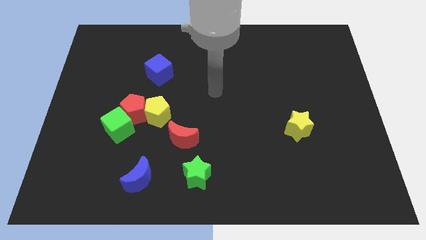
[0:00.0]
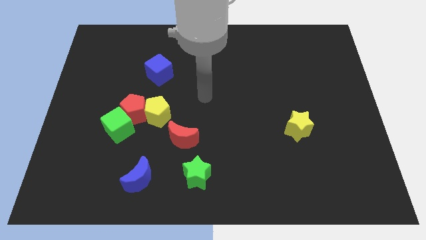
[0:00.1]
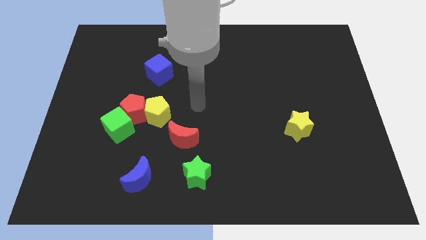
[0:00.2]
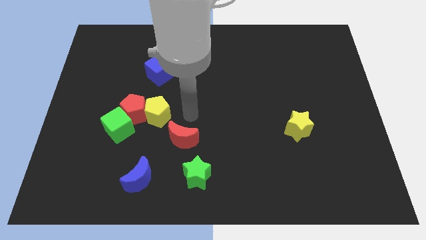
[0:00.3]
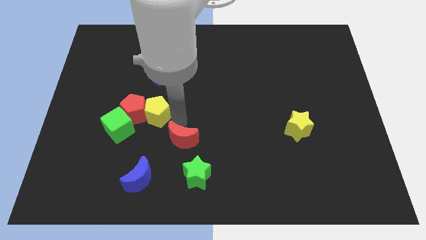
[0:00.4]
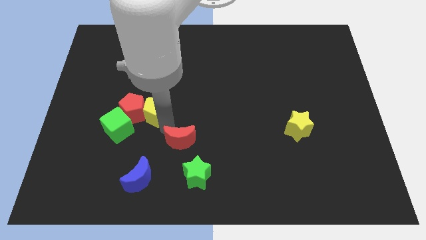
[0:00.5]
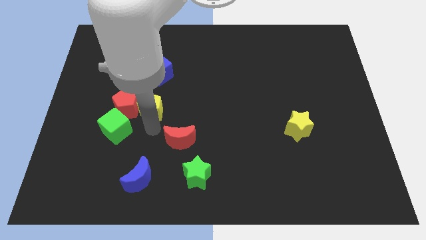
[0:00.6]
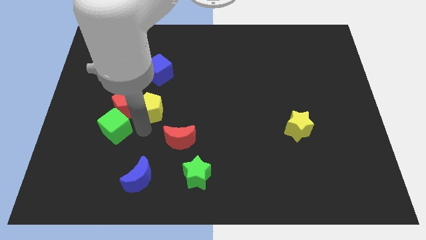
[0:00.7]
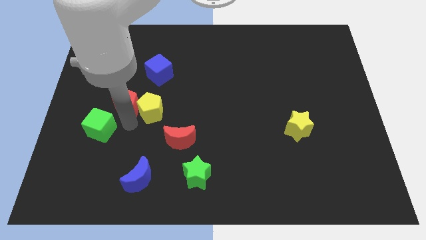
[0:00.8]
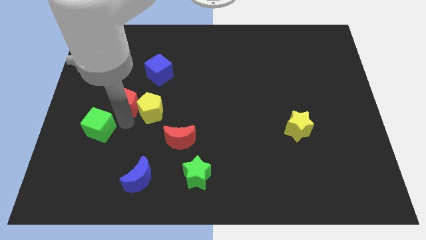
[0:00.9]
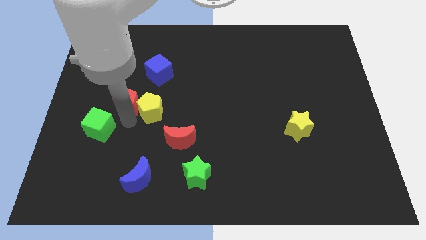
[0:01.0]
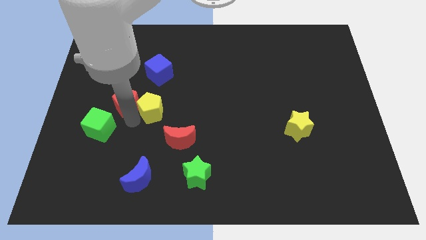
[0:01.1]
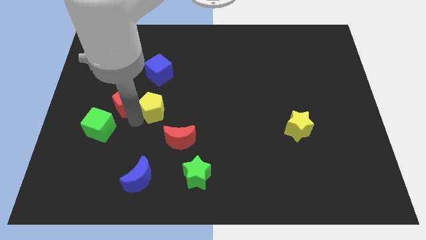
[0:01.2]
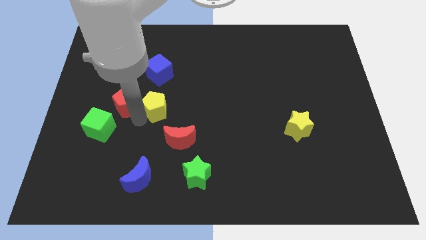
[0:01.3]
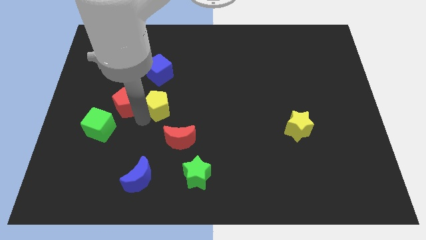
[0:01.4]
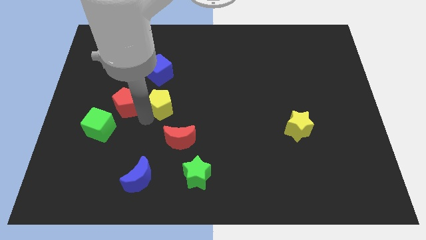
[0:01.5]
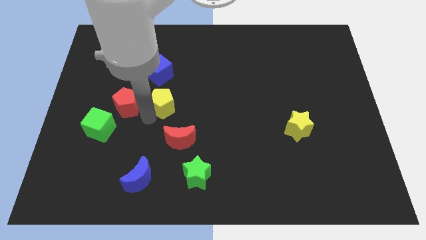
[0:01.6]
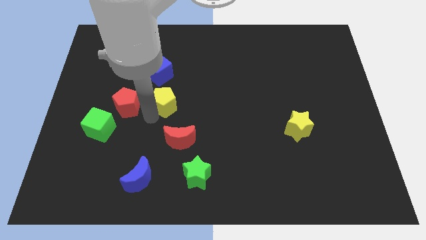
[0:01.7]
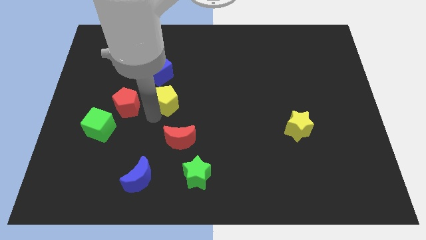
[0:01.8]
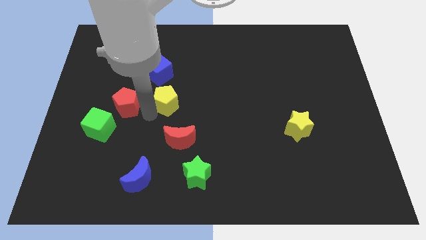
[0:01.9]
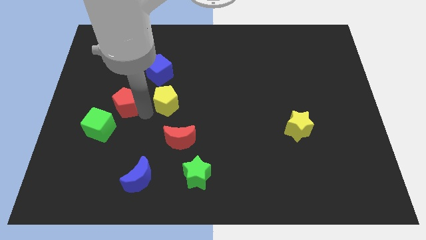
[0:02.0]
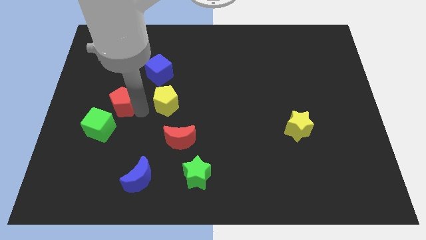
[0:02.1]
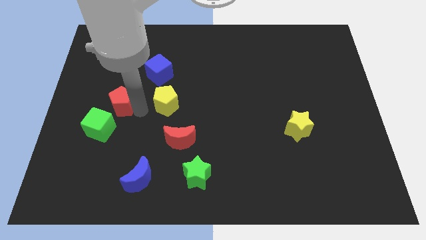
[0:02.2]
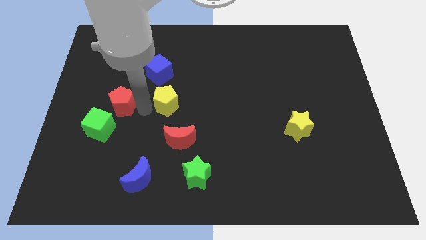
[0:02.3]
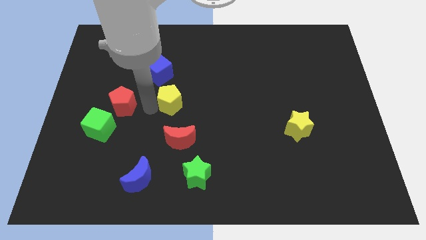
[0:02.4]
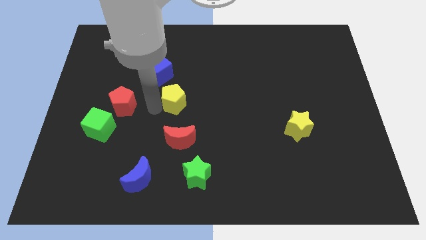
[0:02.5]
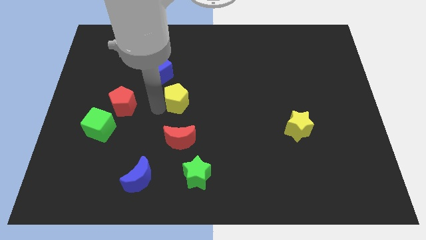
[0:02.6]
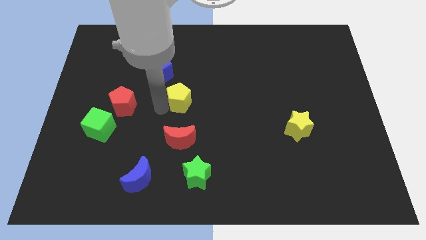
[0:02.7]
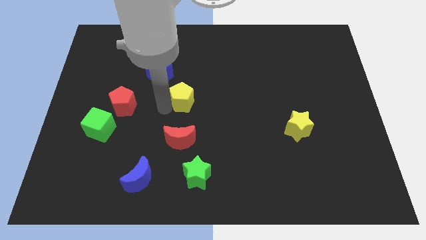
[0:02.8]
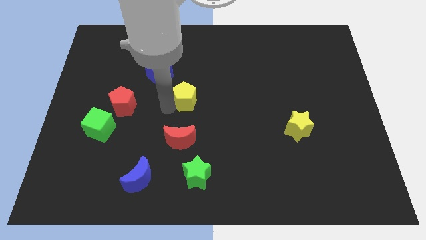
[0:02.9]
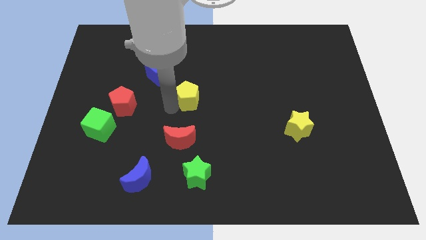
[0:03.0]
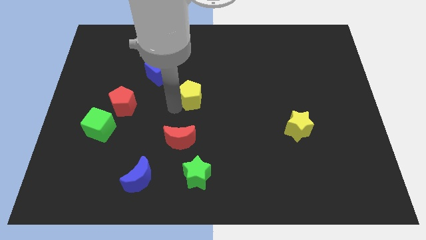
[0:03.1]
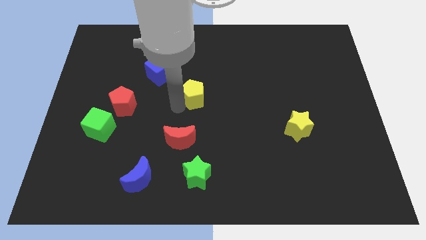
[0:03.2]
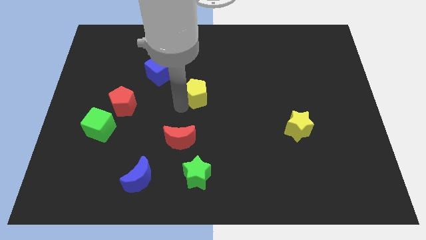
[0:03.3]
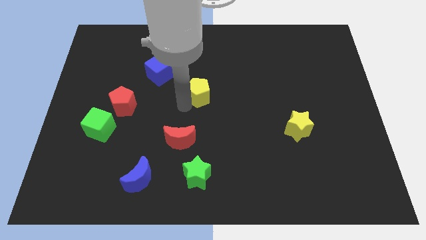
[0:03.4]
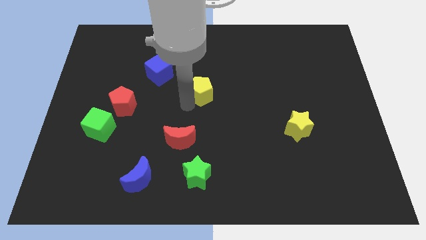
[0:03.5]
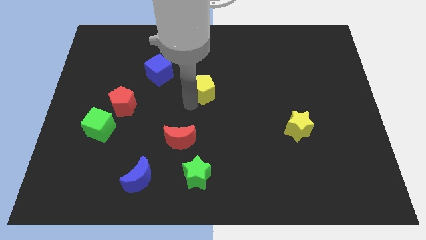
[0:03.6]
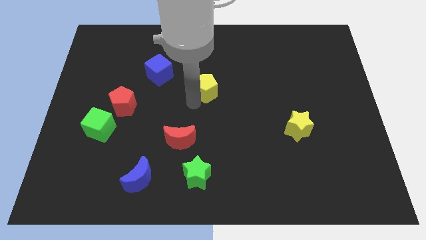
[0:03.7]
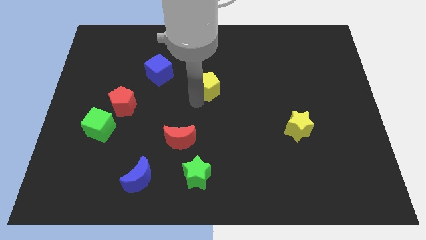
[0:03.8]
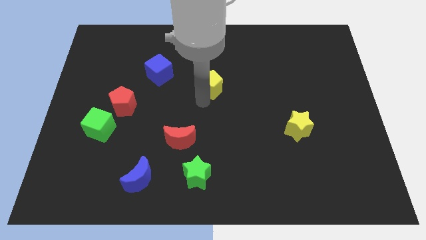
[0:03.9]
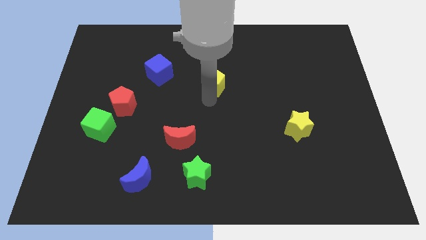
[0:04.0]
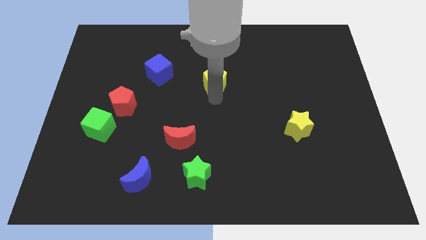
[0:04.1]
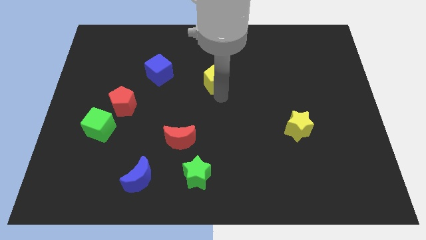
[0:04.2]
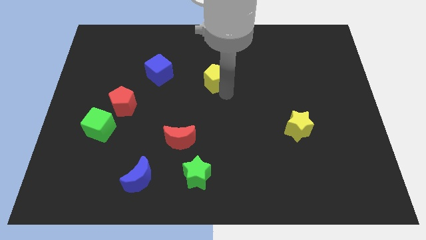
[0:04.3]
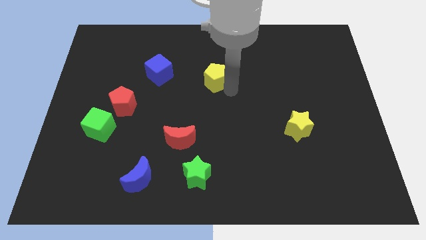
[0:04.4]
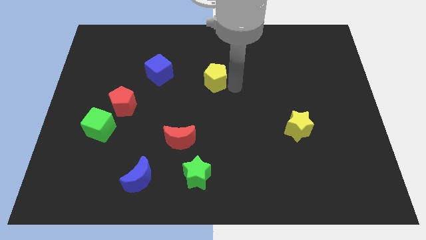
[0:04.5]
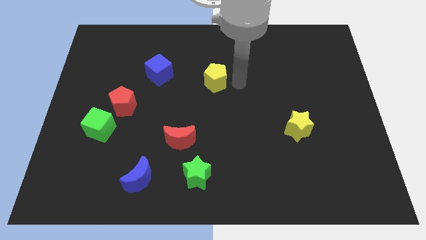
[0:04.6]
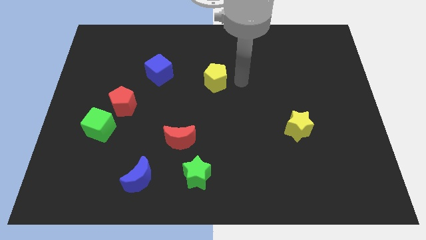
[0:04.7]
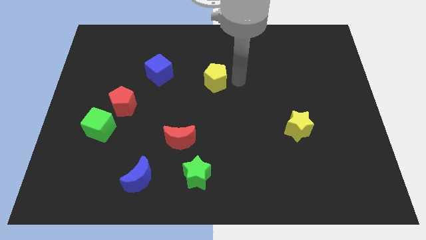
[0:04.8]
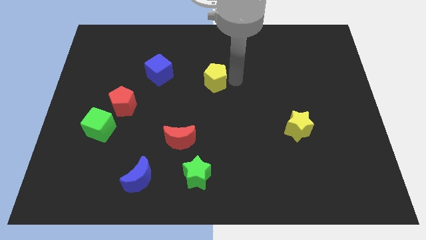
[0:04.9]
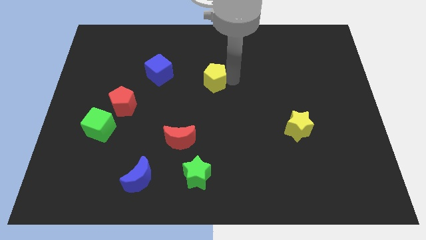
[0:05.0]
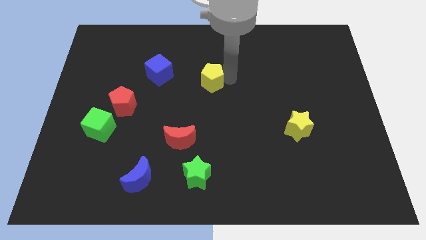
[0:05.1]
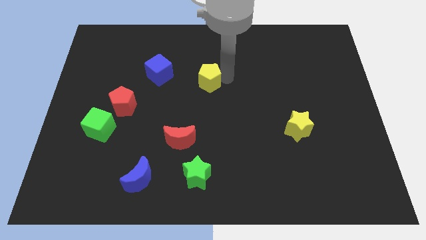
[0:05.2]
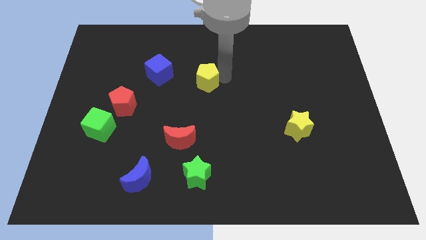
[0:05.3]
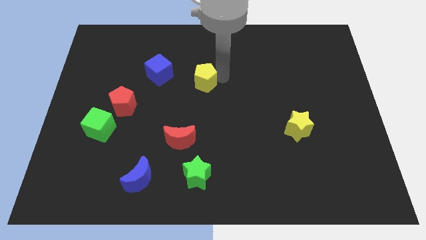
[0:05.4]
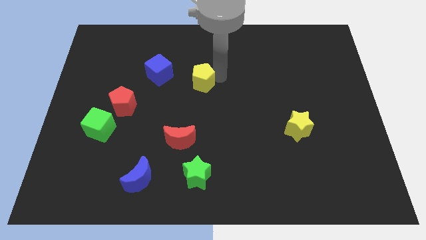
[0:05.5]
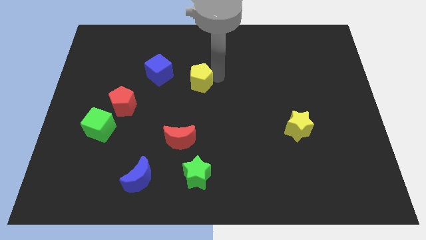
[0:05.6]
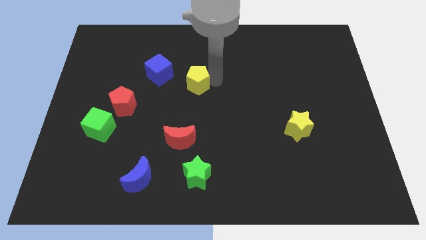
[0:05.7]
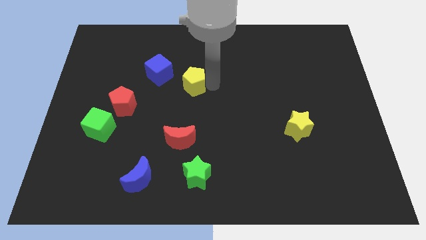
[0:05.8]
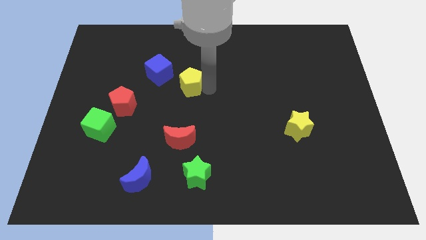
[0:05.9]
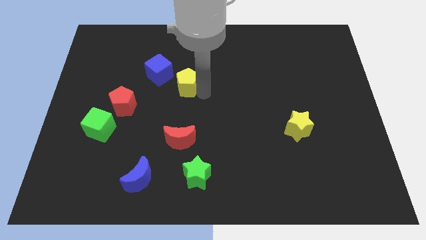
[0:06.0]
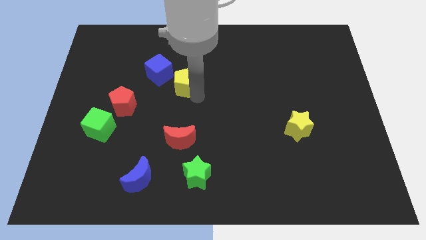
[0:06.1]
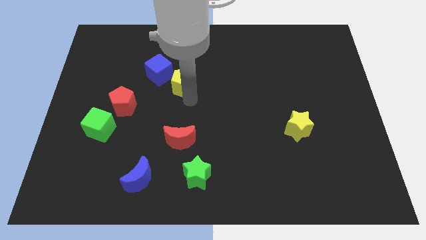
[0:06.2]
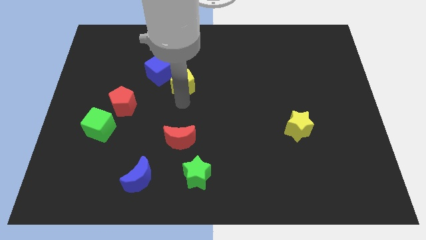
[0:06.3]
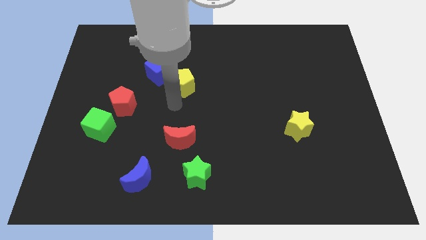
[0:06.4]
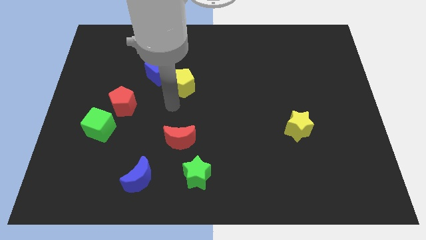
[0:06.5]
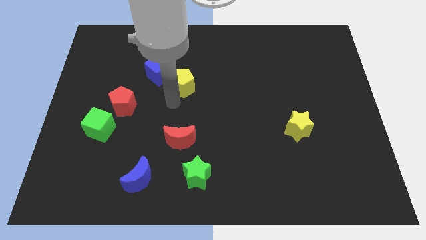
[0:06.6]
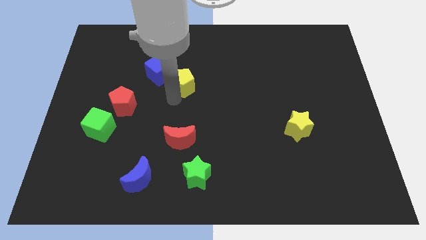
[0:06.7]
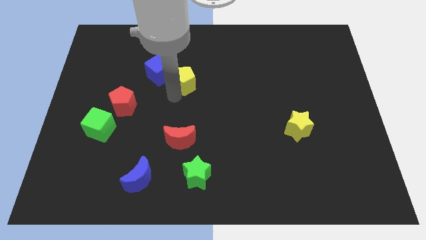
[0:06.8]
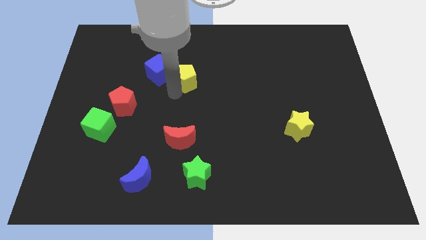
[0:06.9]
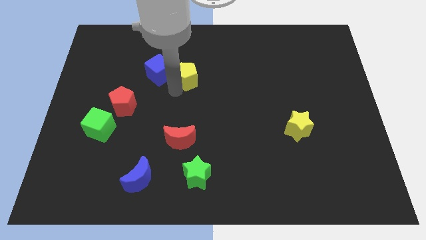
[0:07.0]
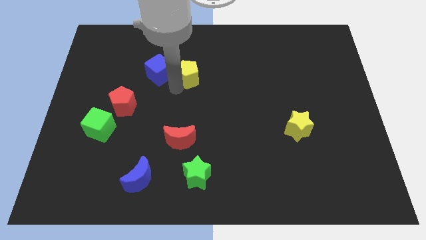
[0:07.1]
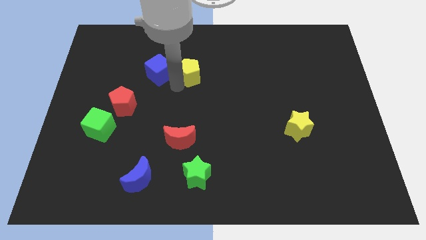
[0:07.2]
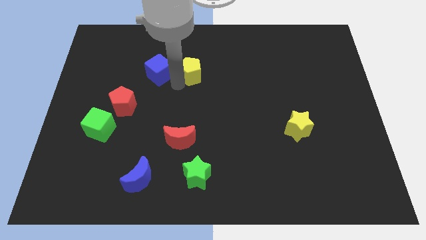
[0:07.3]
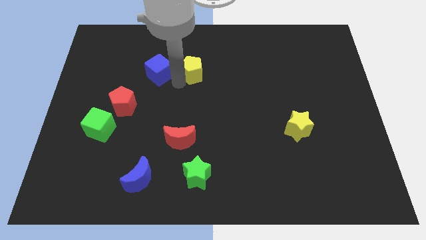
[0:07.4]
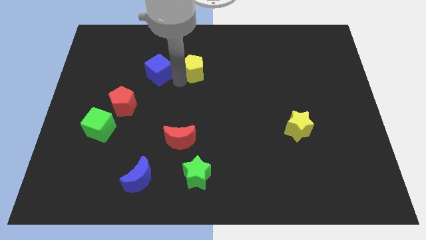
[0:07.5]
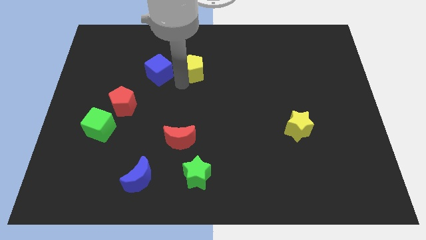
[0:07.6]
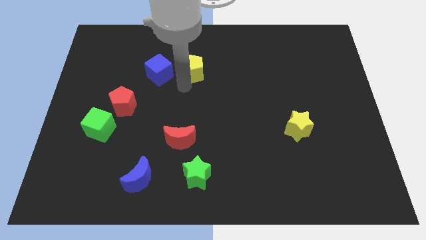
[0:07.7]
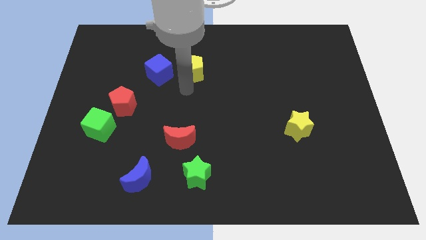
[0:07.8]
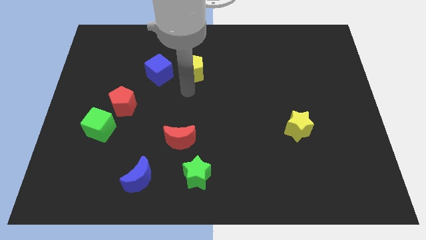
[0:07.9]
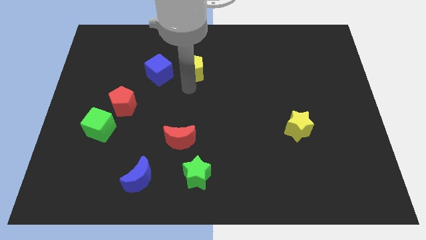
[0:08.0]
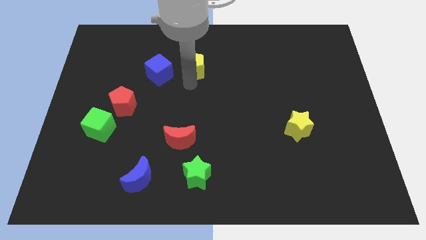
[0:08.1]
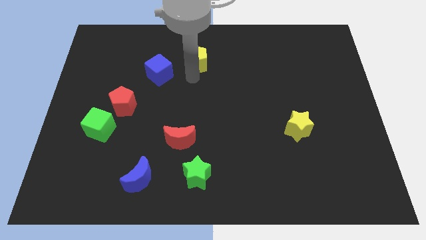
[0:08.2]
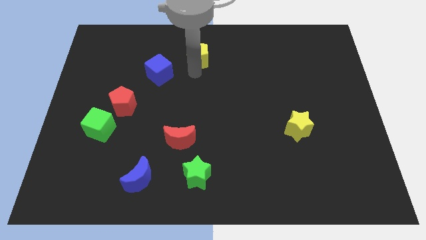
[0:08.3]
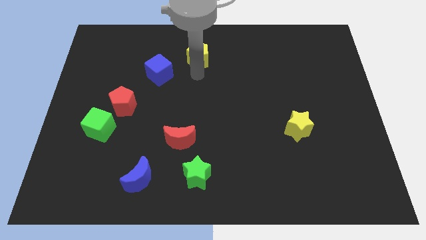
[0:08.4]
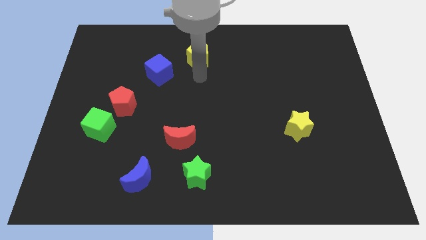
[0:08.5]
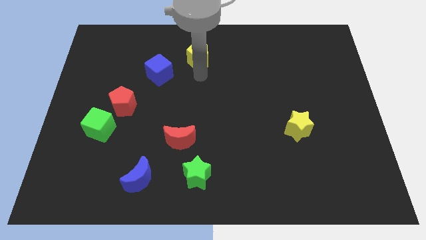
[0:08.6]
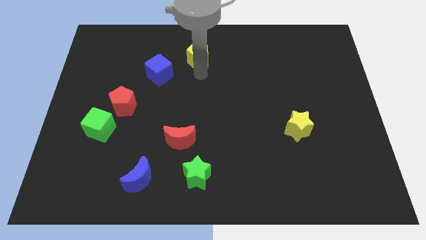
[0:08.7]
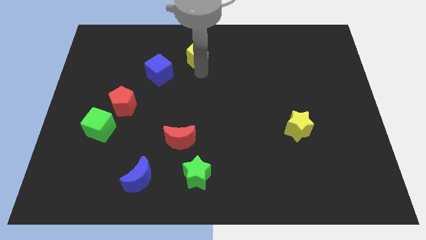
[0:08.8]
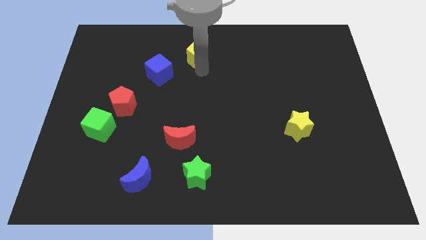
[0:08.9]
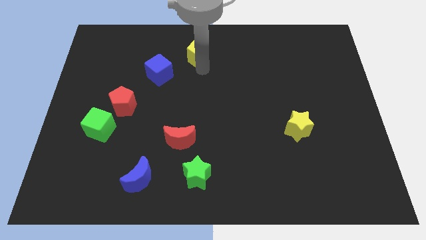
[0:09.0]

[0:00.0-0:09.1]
push the yellow pentagon to the towards your base
